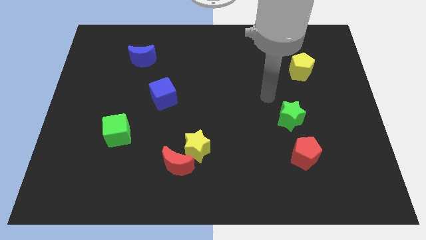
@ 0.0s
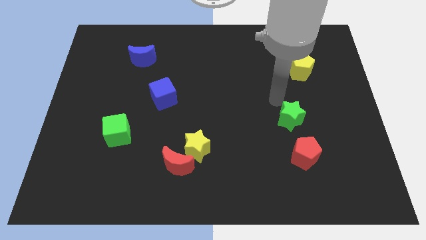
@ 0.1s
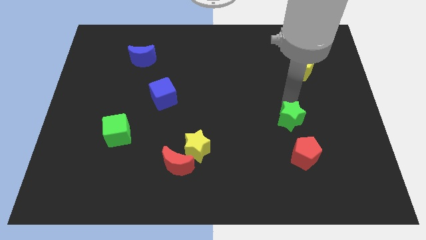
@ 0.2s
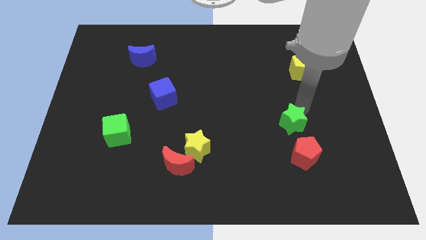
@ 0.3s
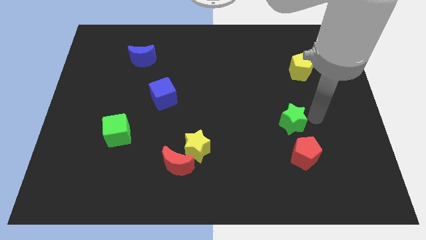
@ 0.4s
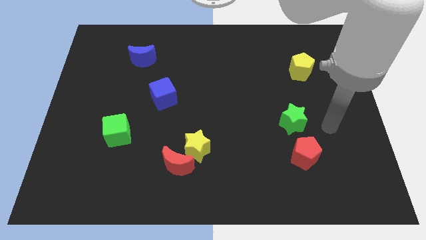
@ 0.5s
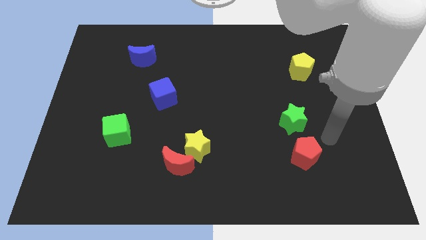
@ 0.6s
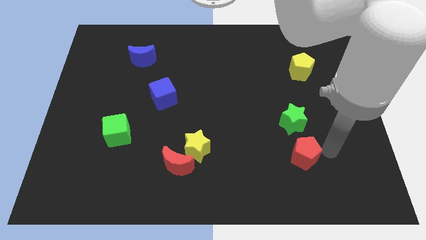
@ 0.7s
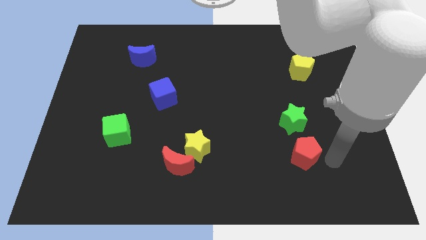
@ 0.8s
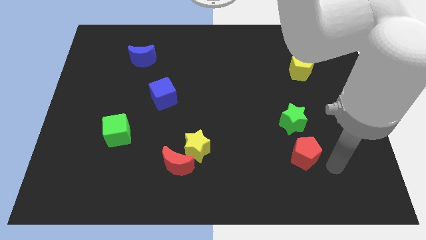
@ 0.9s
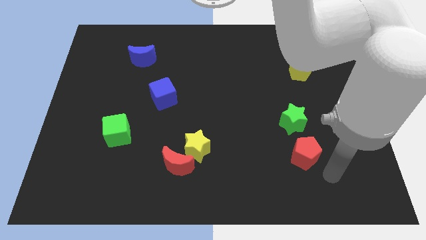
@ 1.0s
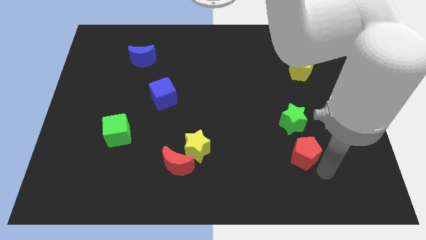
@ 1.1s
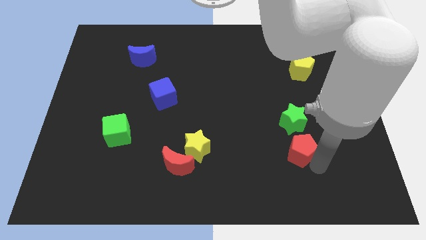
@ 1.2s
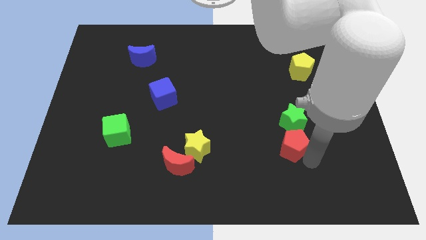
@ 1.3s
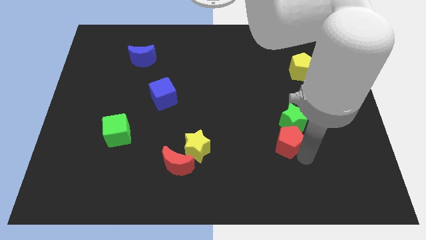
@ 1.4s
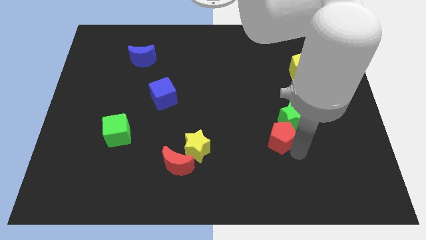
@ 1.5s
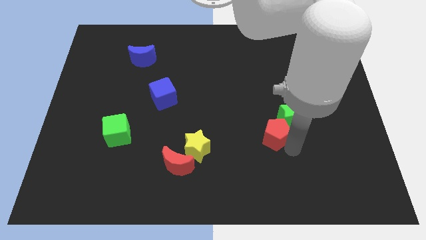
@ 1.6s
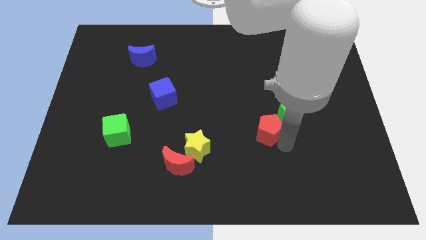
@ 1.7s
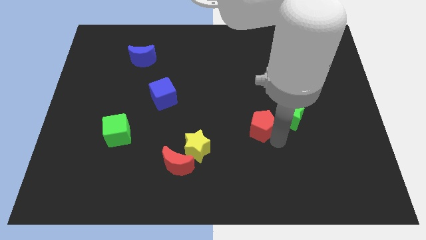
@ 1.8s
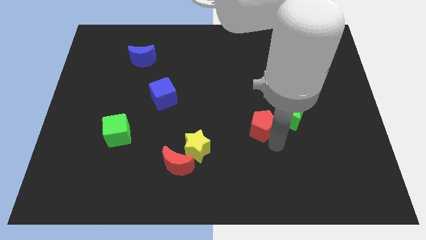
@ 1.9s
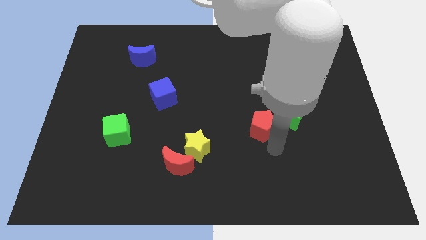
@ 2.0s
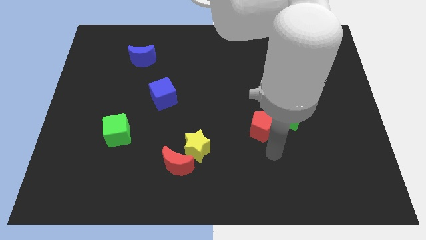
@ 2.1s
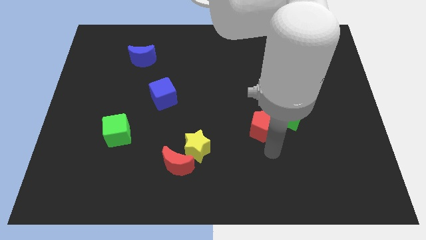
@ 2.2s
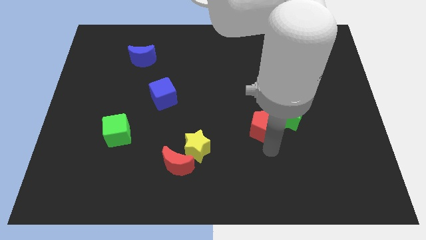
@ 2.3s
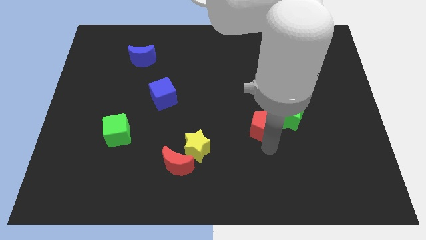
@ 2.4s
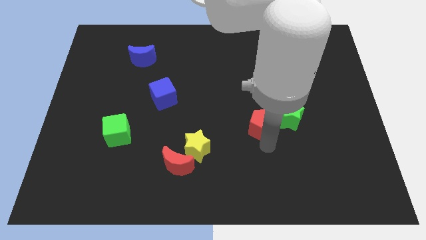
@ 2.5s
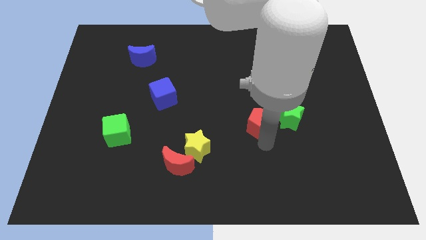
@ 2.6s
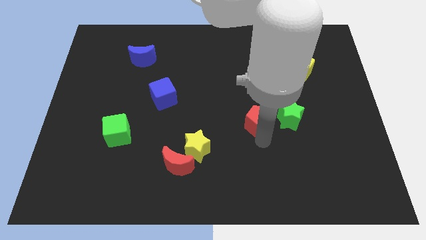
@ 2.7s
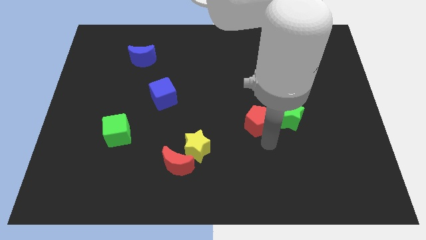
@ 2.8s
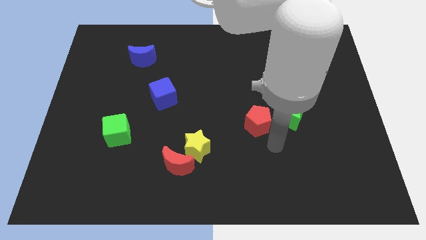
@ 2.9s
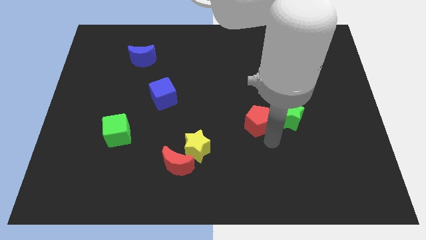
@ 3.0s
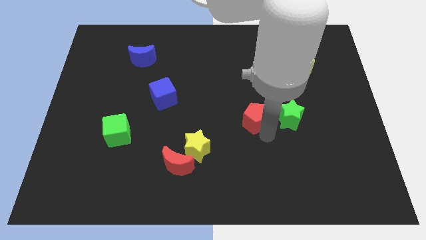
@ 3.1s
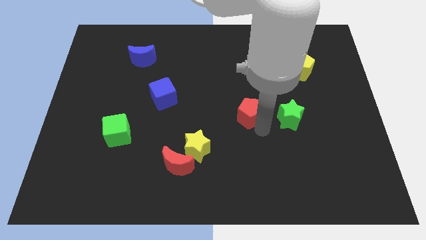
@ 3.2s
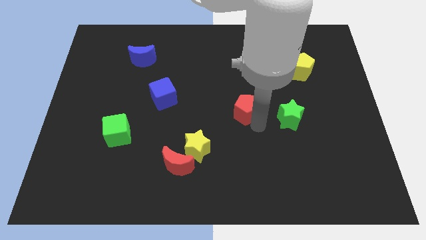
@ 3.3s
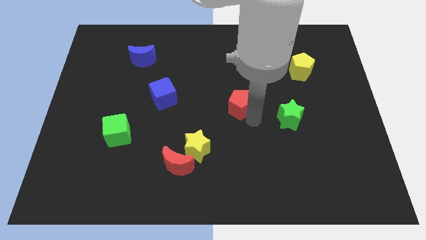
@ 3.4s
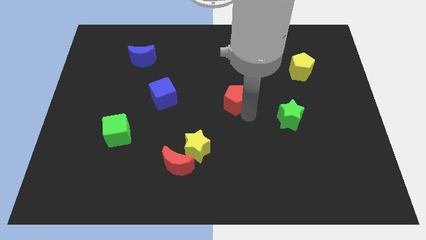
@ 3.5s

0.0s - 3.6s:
slide the red pentagon diagonally up and to the left

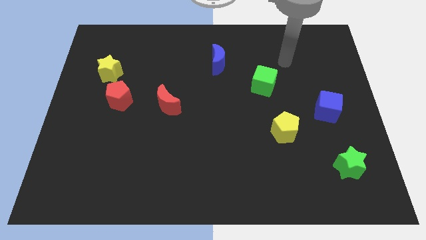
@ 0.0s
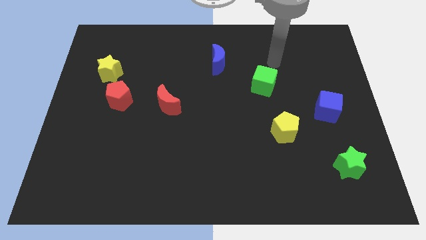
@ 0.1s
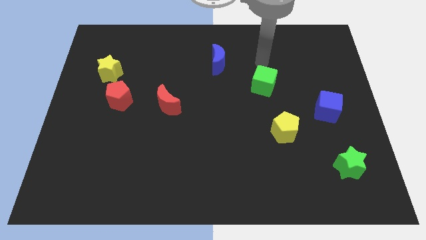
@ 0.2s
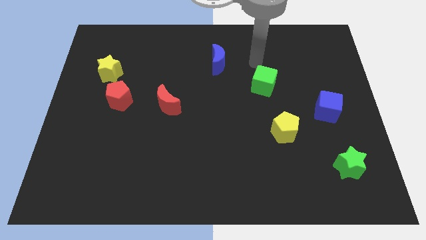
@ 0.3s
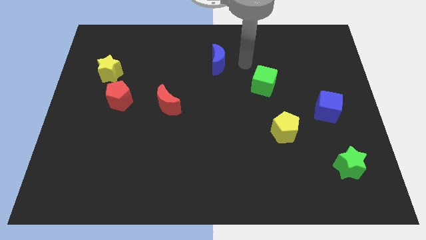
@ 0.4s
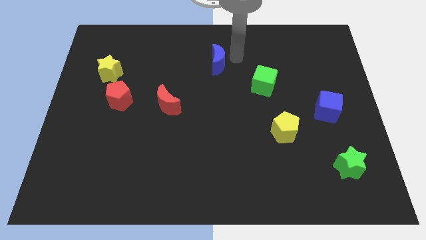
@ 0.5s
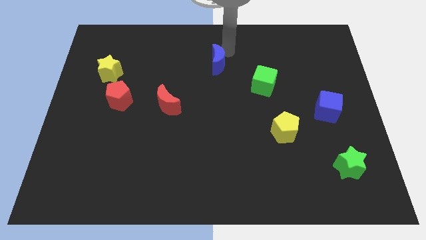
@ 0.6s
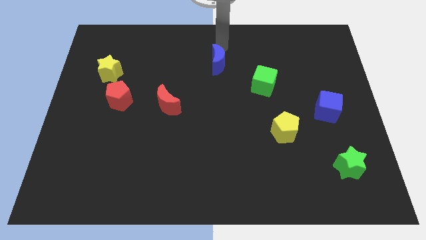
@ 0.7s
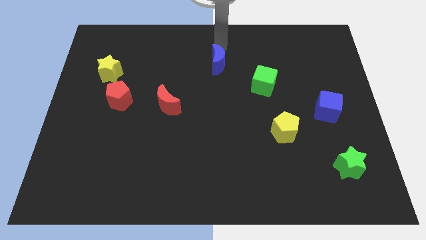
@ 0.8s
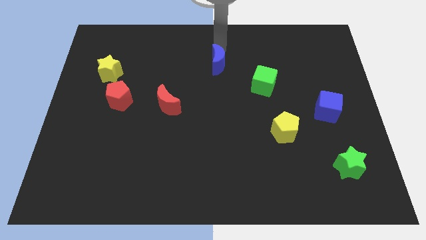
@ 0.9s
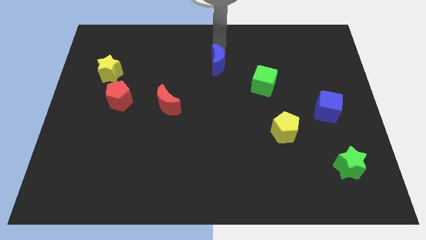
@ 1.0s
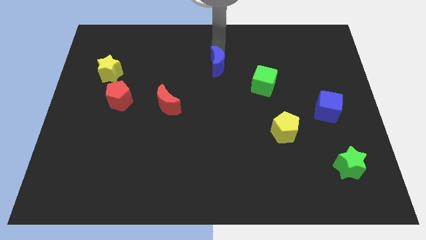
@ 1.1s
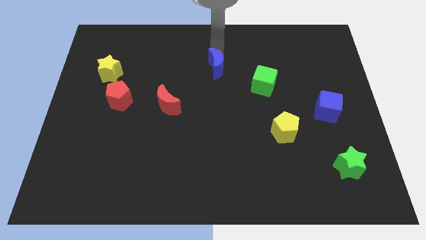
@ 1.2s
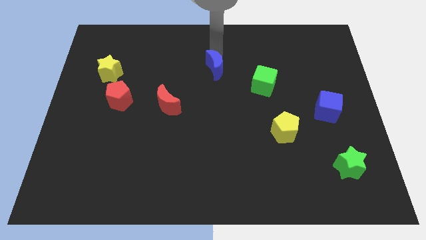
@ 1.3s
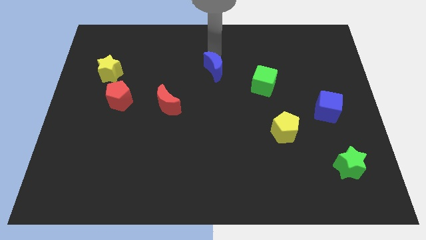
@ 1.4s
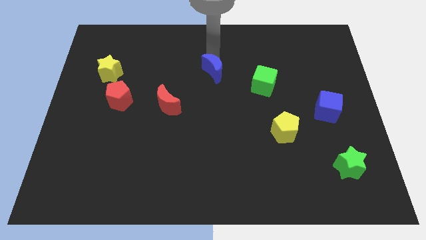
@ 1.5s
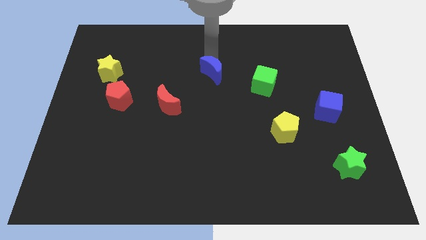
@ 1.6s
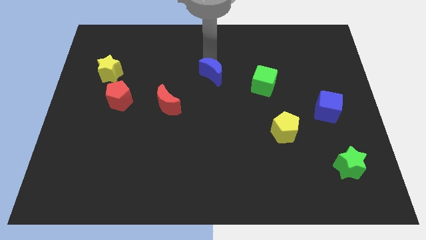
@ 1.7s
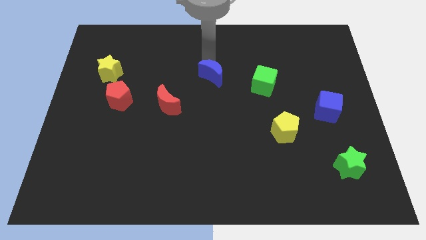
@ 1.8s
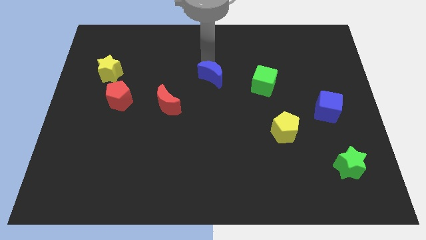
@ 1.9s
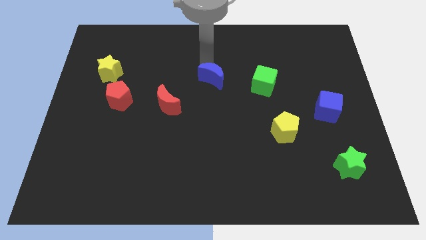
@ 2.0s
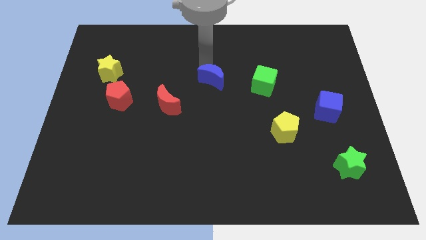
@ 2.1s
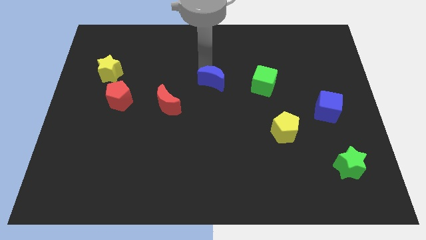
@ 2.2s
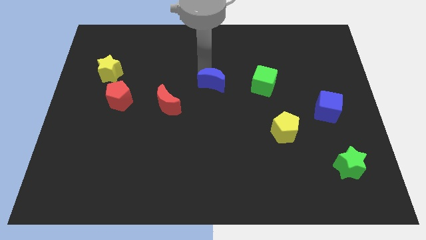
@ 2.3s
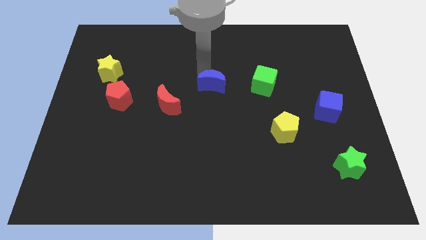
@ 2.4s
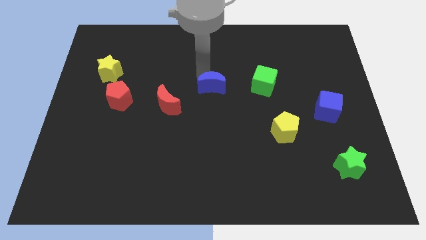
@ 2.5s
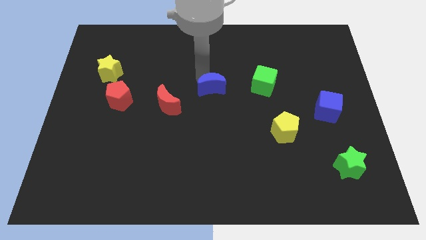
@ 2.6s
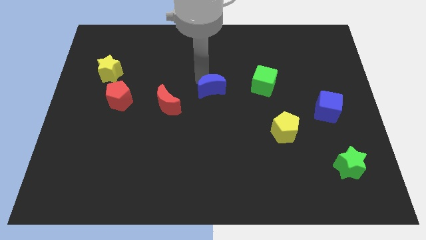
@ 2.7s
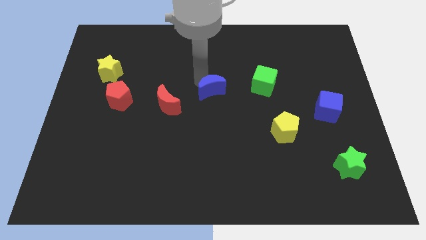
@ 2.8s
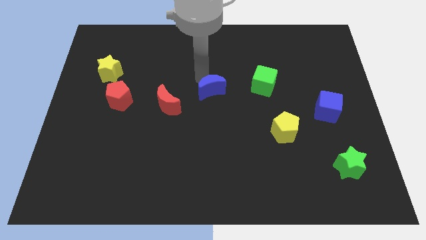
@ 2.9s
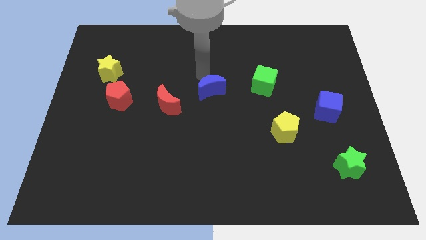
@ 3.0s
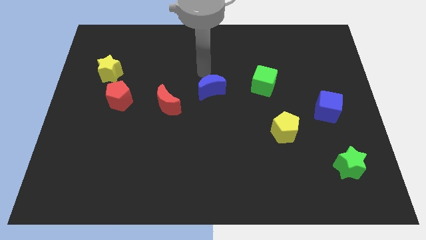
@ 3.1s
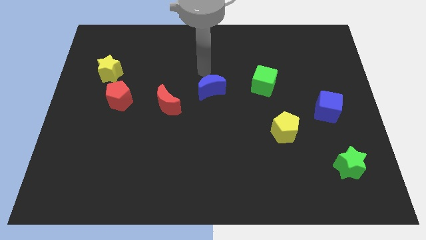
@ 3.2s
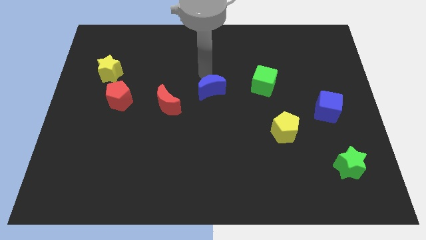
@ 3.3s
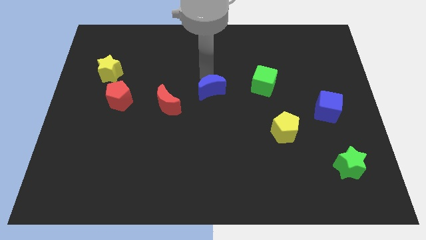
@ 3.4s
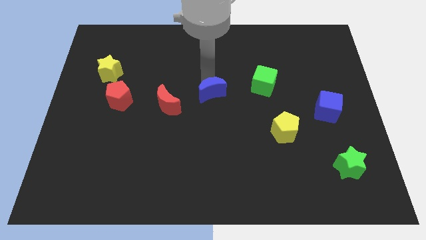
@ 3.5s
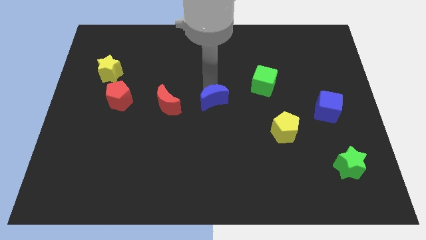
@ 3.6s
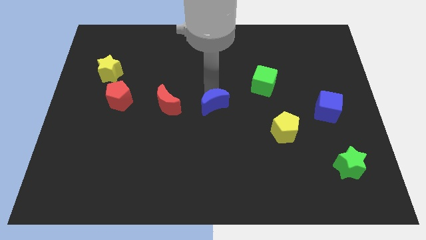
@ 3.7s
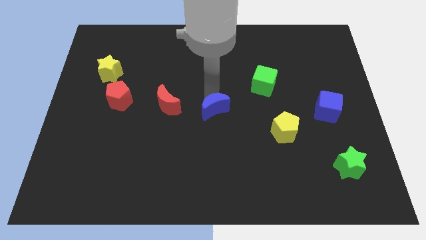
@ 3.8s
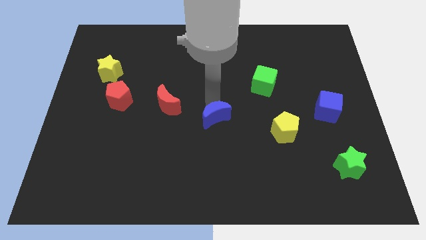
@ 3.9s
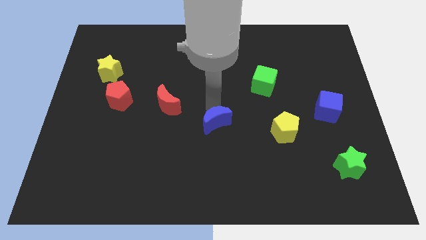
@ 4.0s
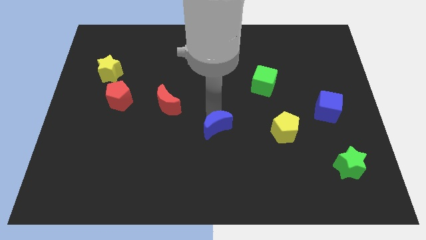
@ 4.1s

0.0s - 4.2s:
push the blue moon downwards

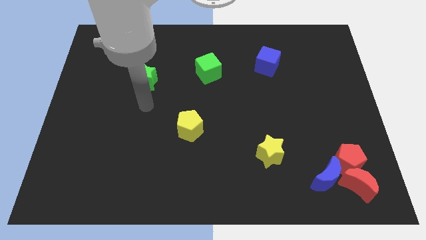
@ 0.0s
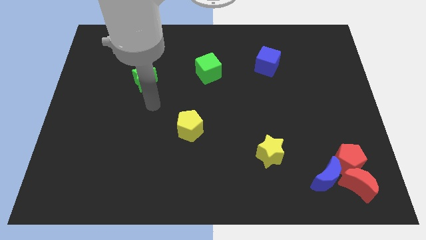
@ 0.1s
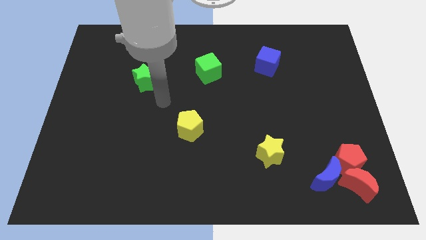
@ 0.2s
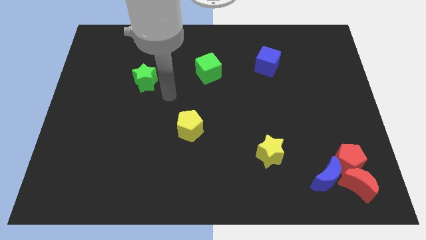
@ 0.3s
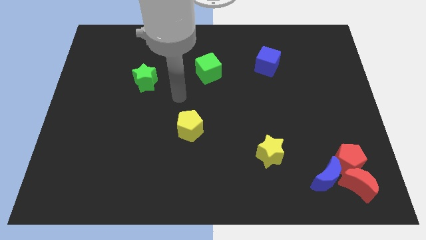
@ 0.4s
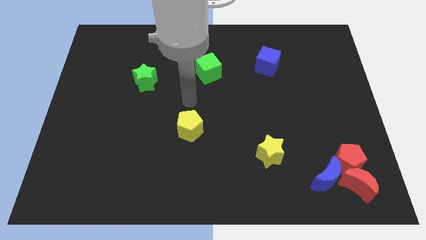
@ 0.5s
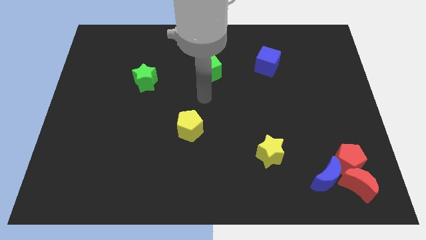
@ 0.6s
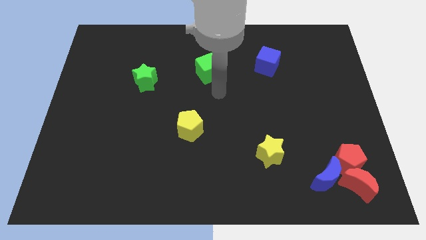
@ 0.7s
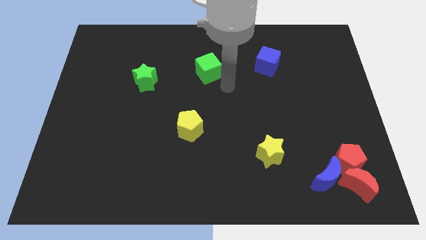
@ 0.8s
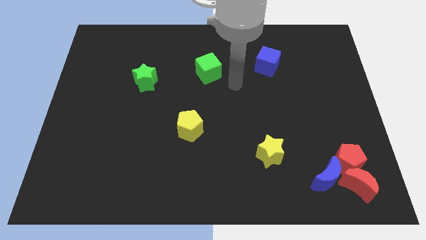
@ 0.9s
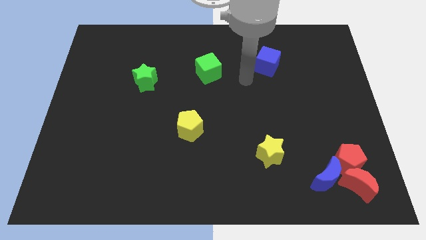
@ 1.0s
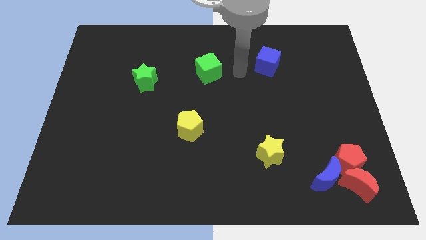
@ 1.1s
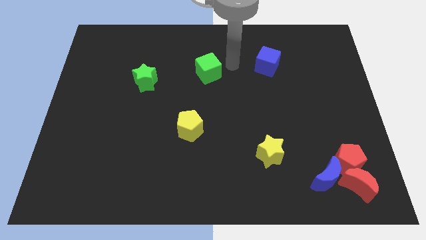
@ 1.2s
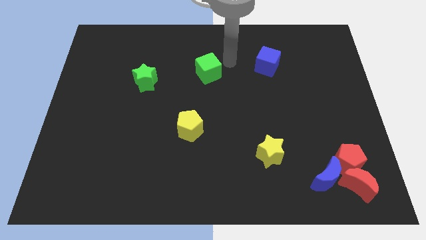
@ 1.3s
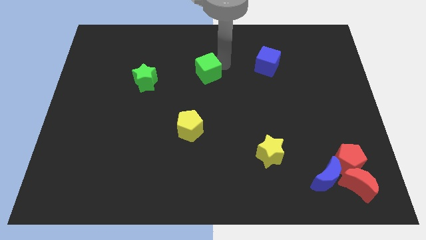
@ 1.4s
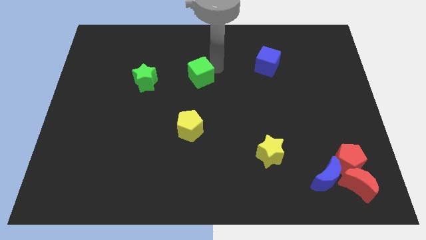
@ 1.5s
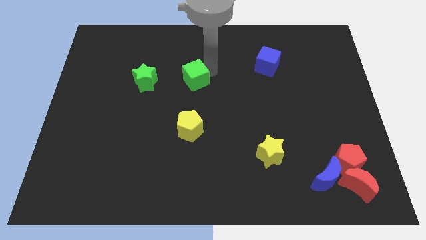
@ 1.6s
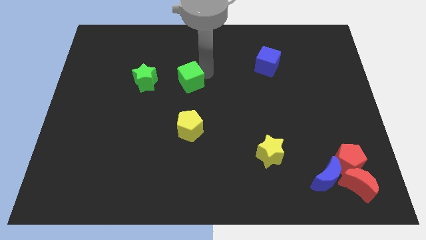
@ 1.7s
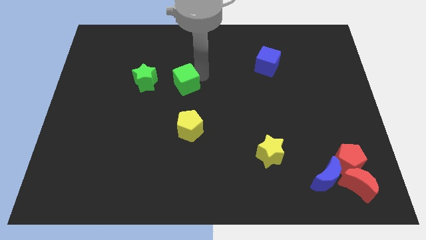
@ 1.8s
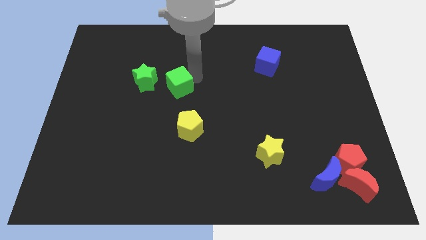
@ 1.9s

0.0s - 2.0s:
move the green cube a bit diagonally downwards and left
